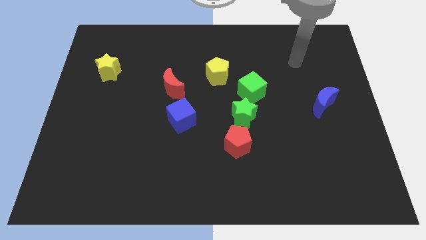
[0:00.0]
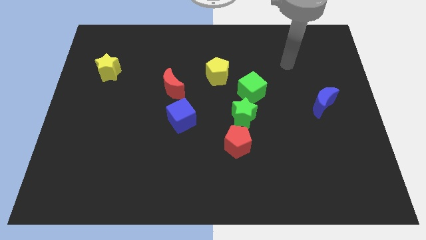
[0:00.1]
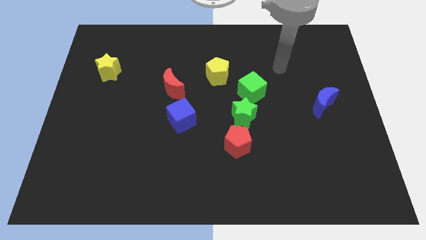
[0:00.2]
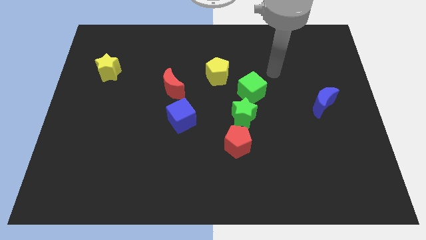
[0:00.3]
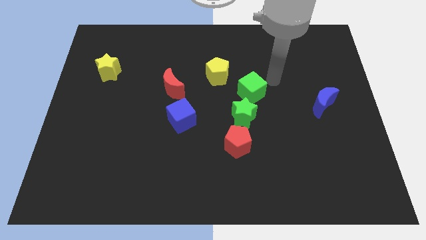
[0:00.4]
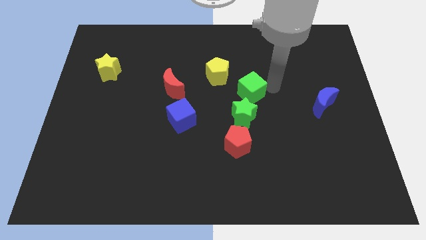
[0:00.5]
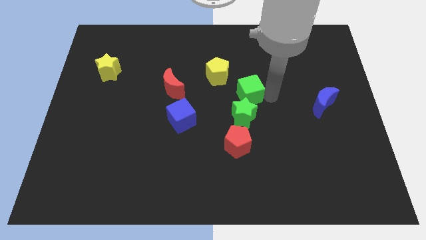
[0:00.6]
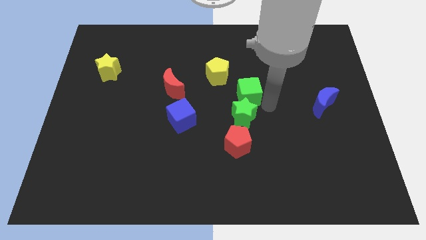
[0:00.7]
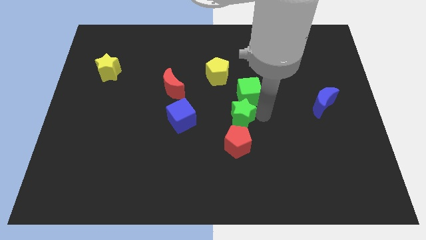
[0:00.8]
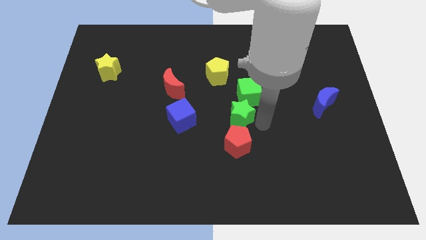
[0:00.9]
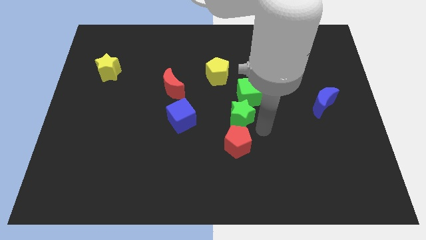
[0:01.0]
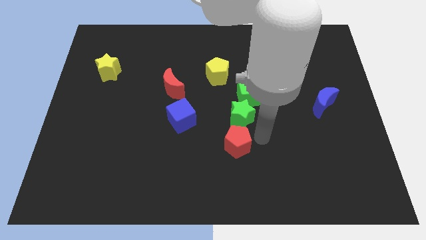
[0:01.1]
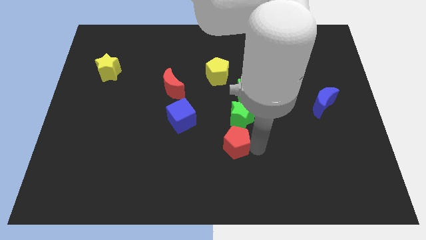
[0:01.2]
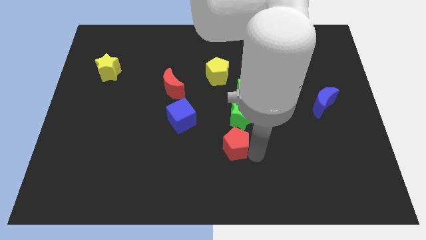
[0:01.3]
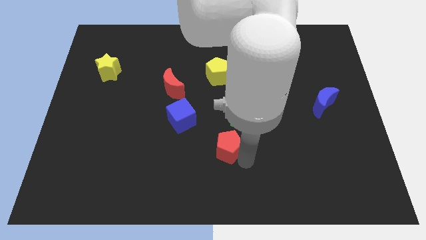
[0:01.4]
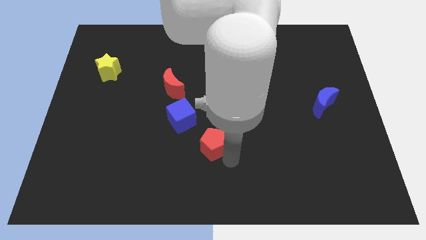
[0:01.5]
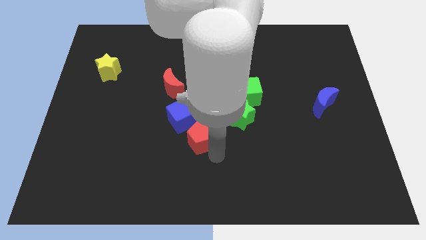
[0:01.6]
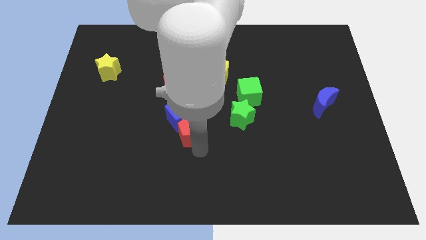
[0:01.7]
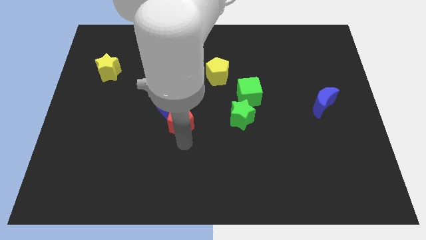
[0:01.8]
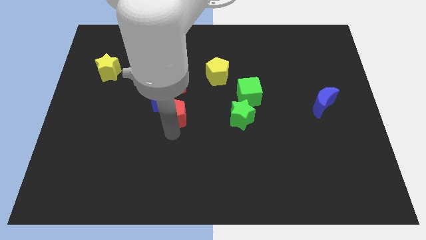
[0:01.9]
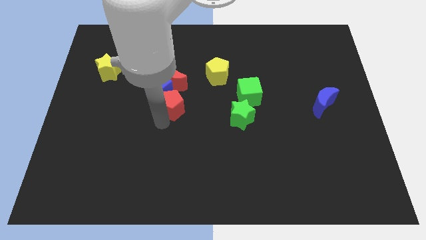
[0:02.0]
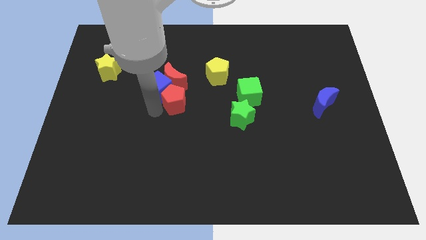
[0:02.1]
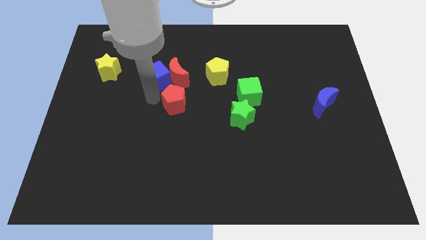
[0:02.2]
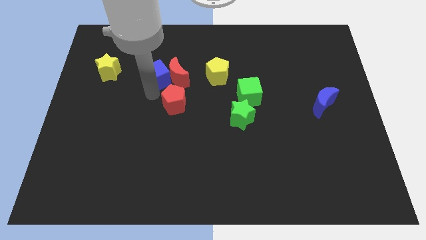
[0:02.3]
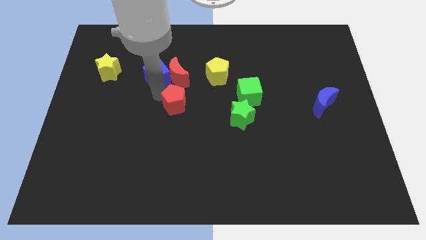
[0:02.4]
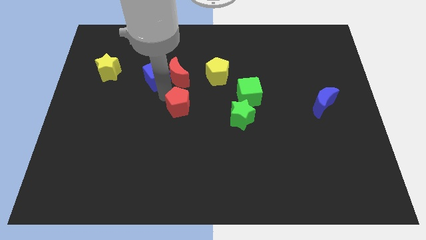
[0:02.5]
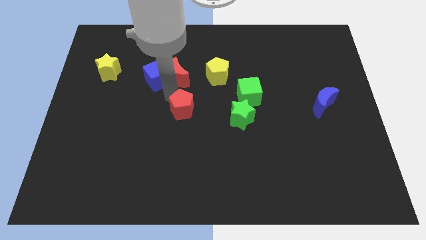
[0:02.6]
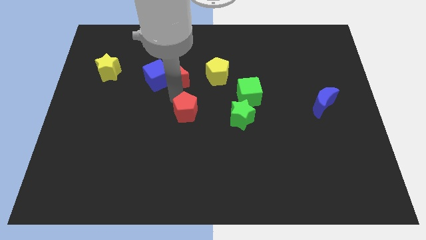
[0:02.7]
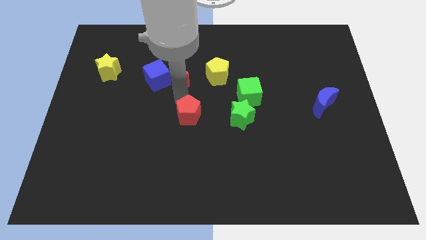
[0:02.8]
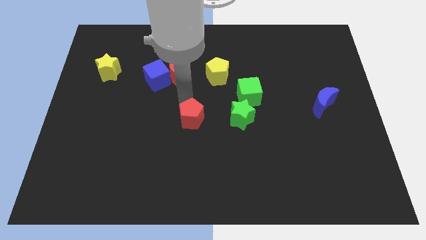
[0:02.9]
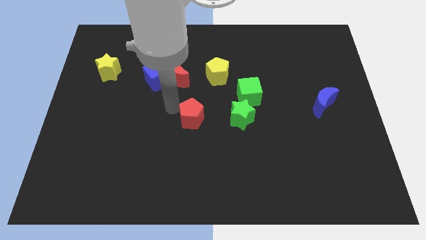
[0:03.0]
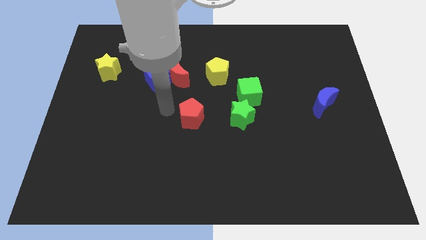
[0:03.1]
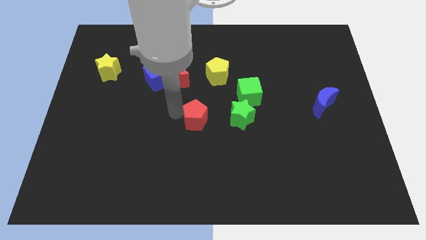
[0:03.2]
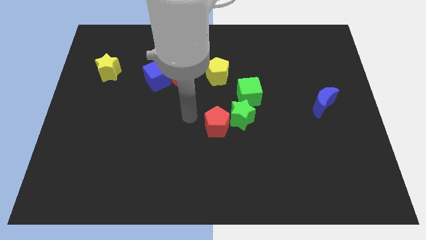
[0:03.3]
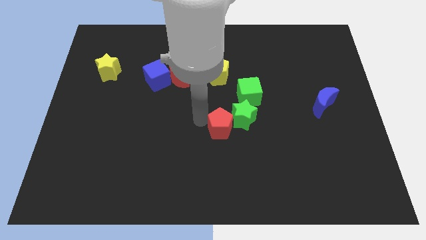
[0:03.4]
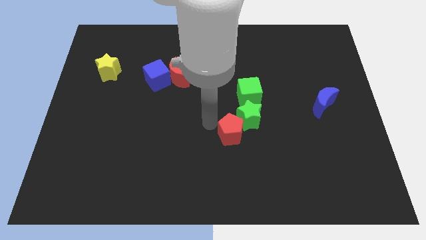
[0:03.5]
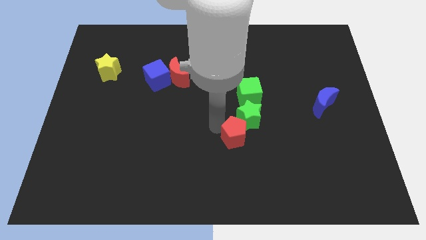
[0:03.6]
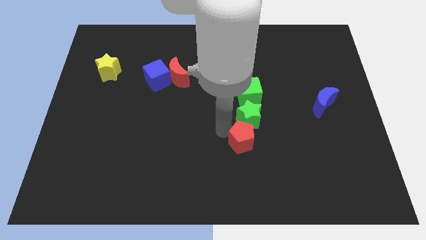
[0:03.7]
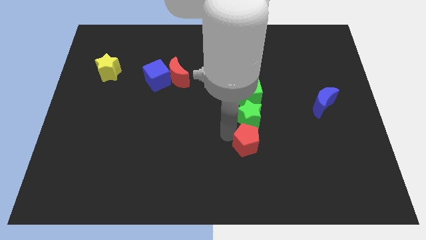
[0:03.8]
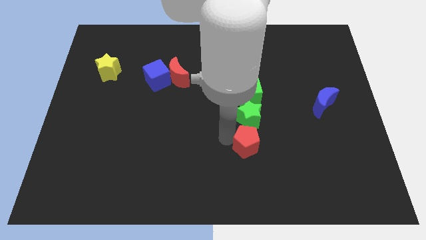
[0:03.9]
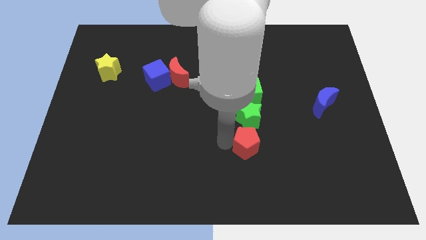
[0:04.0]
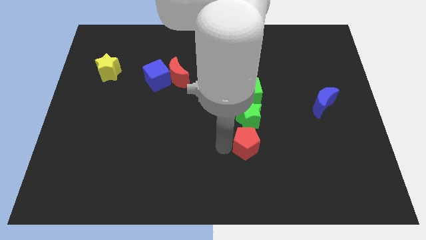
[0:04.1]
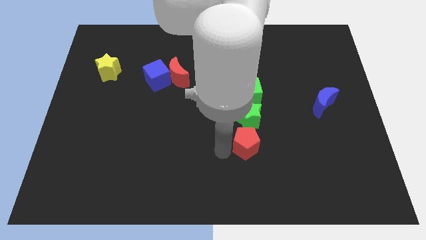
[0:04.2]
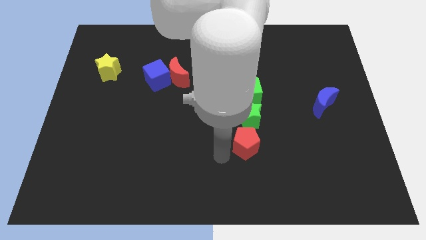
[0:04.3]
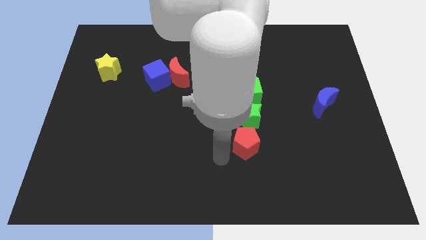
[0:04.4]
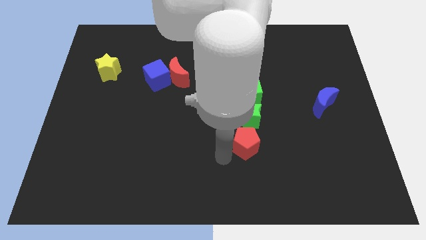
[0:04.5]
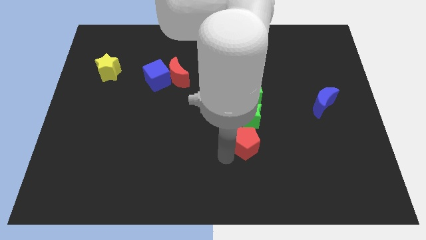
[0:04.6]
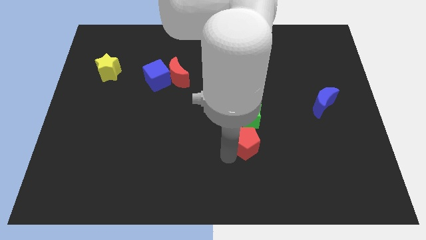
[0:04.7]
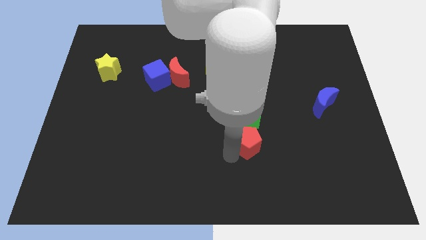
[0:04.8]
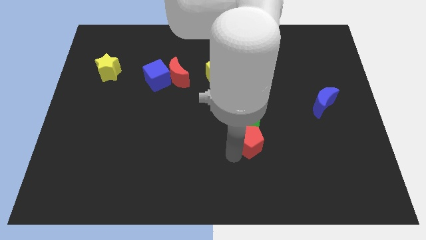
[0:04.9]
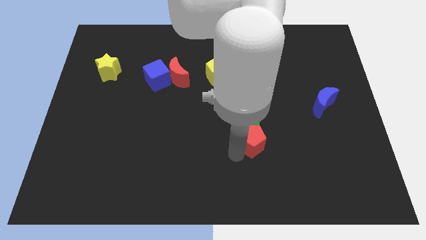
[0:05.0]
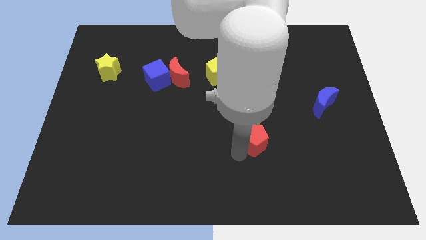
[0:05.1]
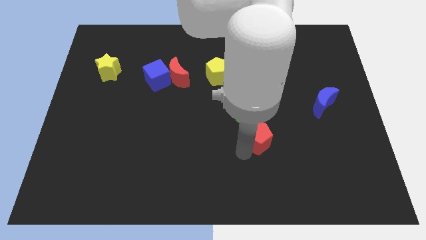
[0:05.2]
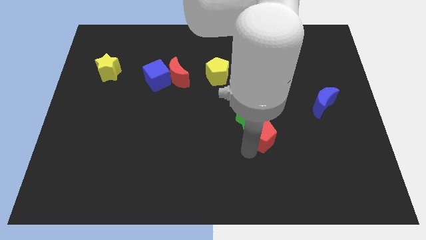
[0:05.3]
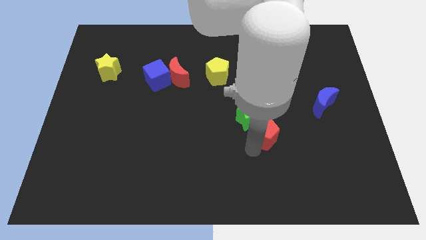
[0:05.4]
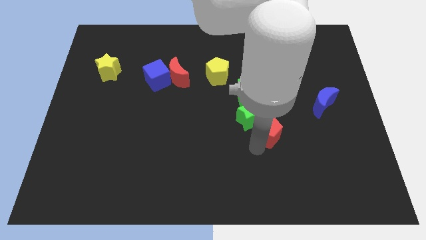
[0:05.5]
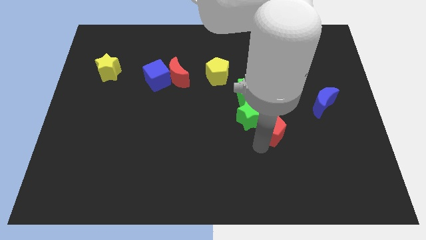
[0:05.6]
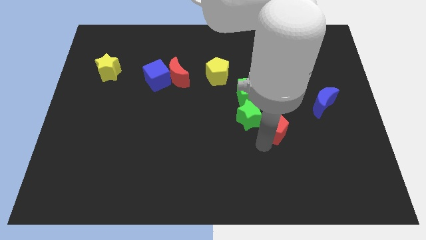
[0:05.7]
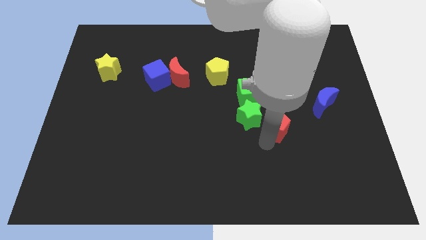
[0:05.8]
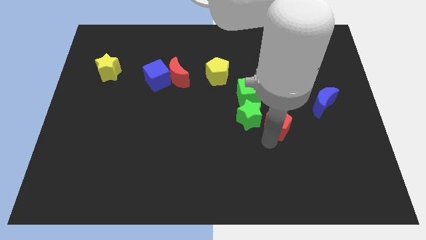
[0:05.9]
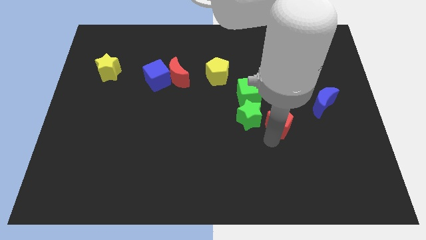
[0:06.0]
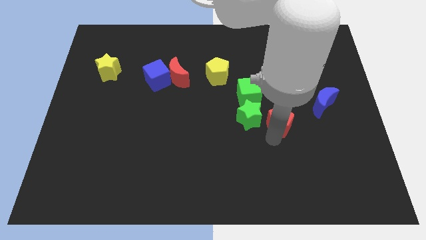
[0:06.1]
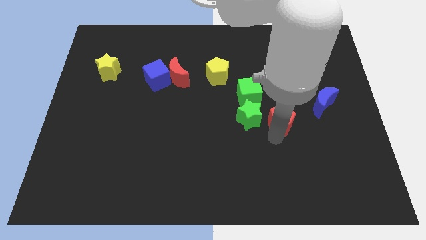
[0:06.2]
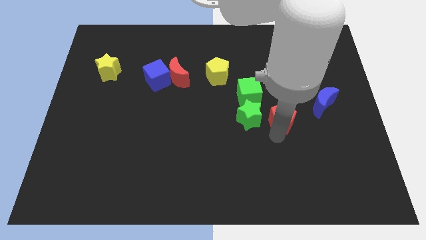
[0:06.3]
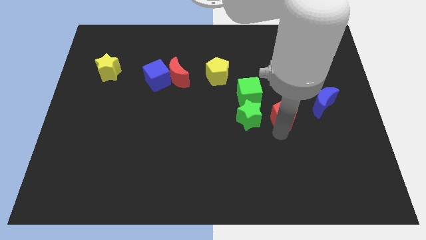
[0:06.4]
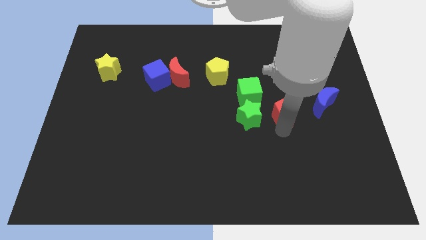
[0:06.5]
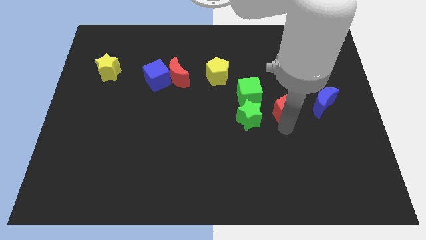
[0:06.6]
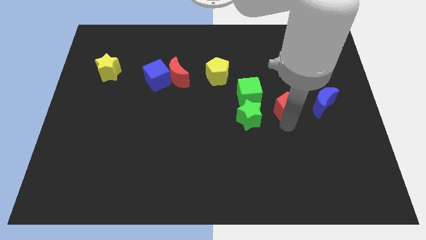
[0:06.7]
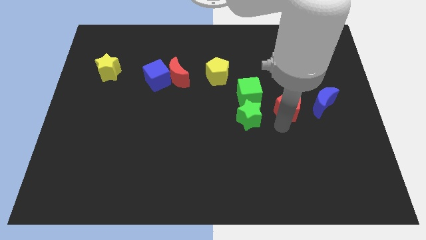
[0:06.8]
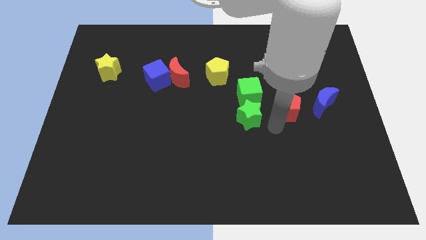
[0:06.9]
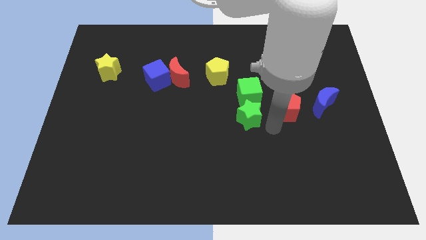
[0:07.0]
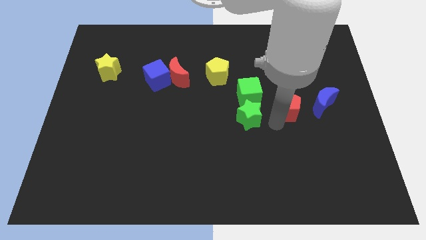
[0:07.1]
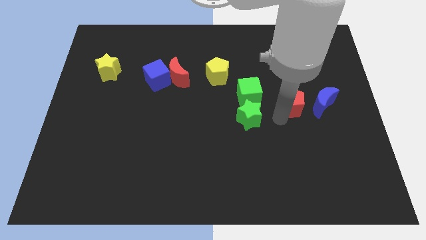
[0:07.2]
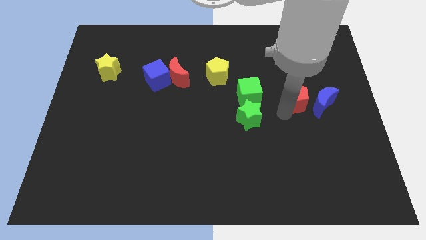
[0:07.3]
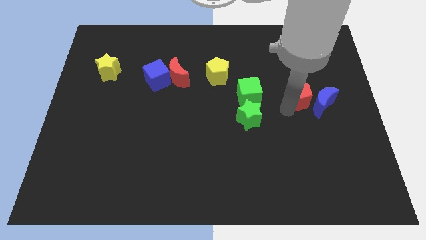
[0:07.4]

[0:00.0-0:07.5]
move the red pentagon upwards and then to the right

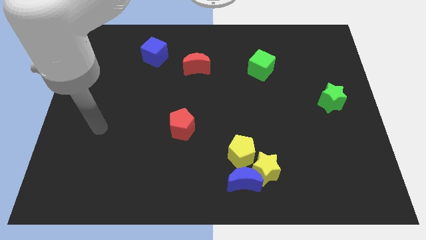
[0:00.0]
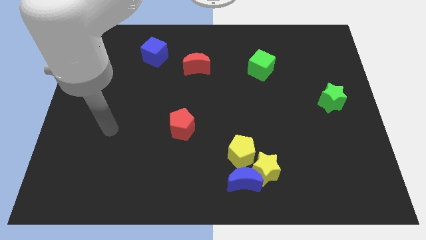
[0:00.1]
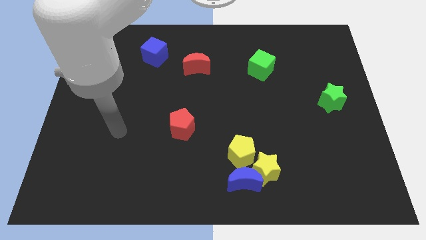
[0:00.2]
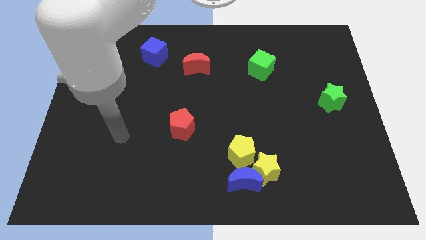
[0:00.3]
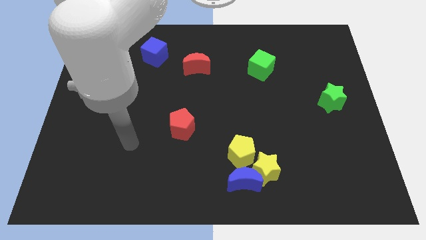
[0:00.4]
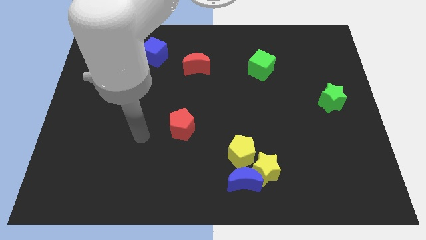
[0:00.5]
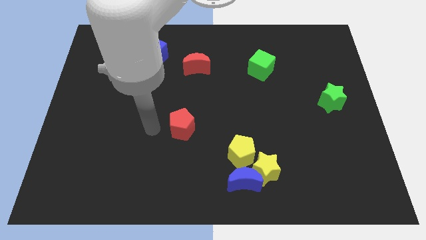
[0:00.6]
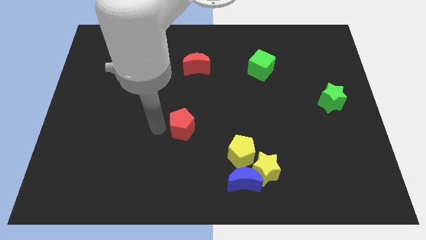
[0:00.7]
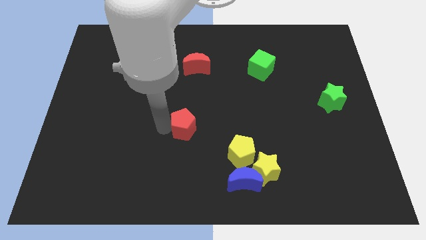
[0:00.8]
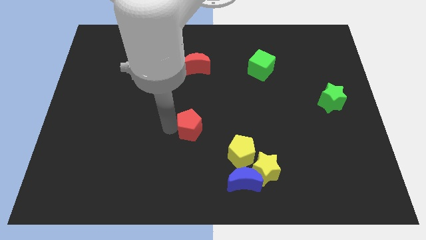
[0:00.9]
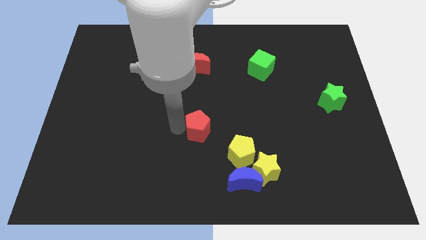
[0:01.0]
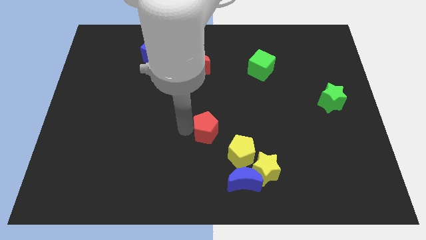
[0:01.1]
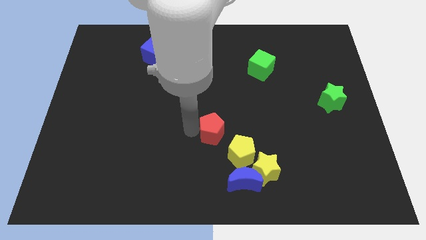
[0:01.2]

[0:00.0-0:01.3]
slightly slide the red pentagon right
